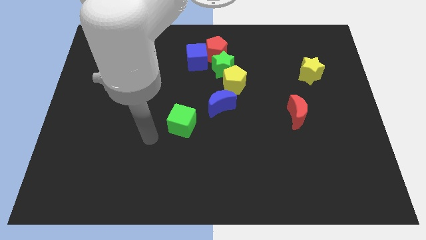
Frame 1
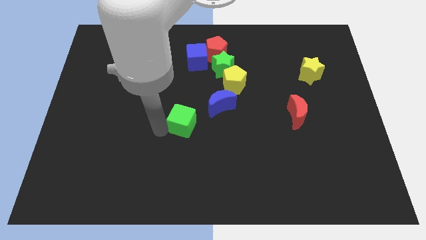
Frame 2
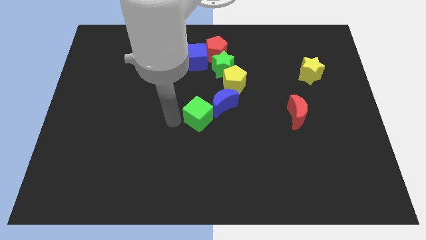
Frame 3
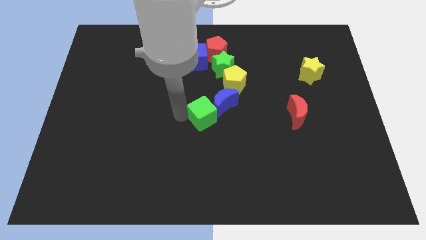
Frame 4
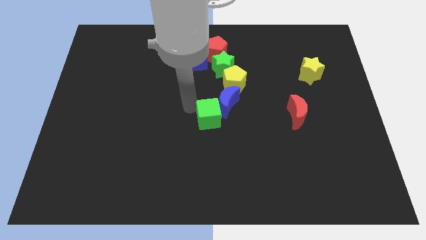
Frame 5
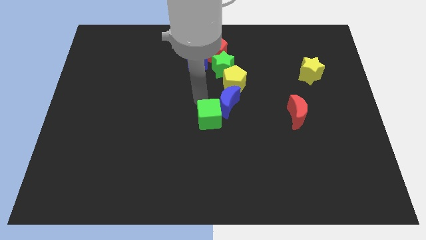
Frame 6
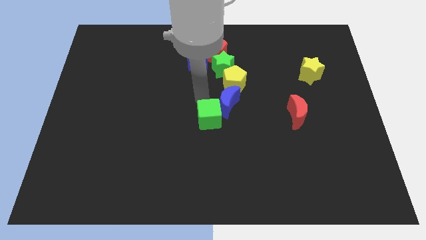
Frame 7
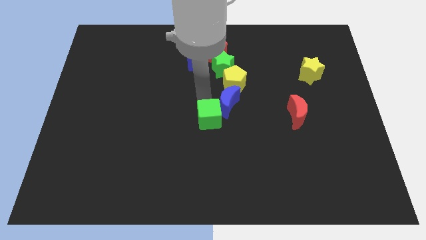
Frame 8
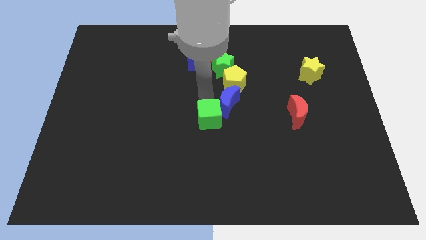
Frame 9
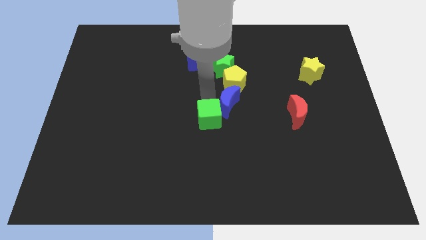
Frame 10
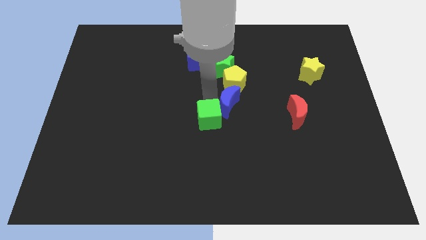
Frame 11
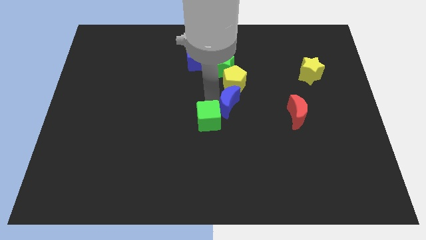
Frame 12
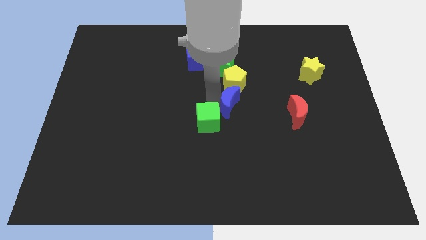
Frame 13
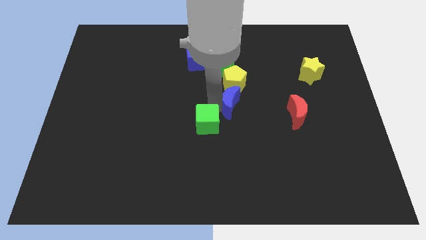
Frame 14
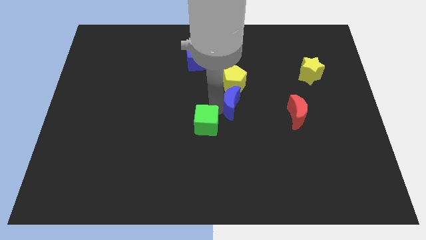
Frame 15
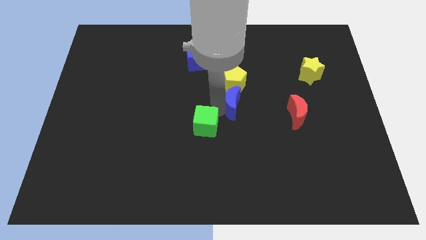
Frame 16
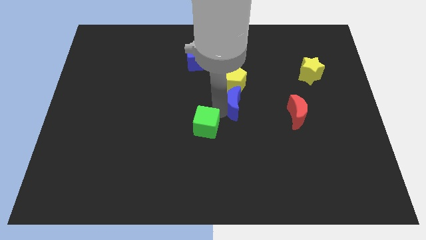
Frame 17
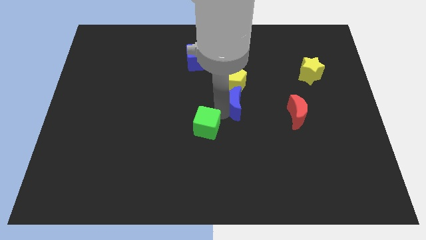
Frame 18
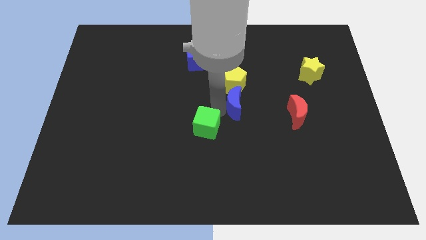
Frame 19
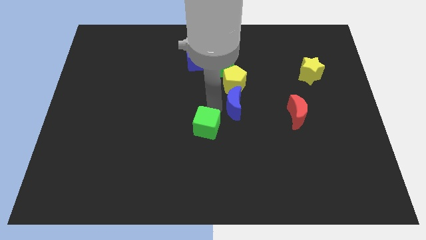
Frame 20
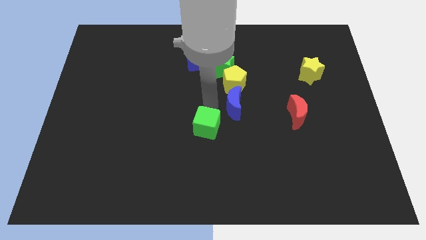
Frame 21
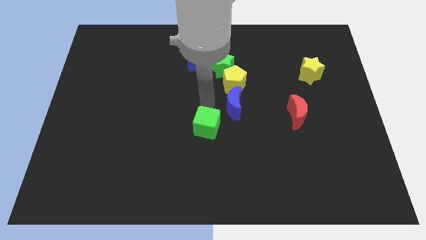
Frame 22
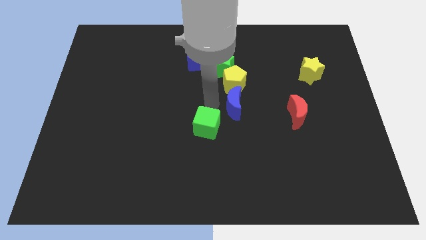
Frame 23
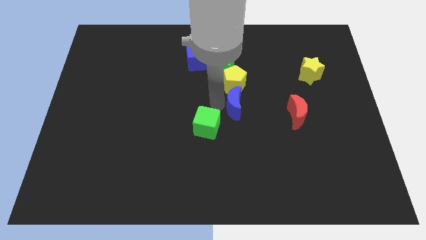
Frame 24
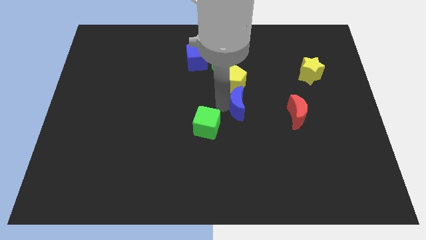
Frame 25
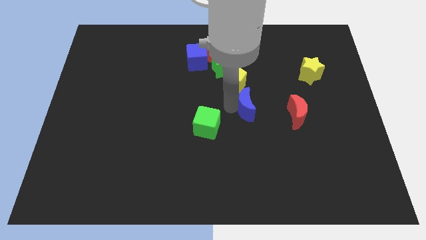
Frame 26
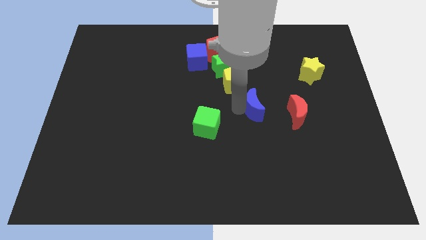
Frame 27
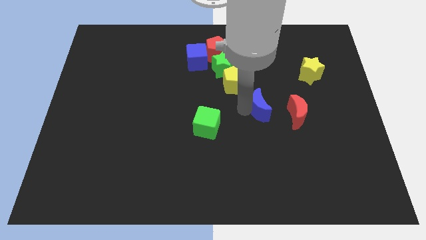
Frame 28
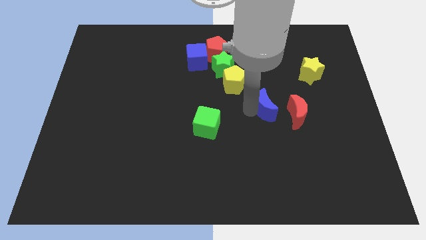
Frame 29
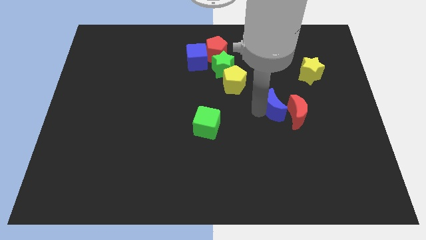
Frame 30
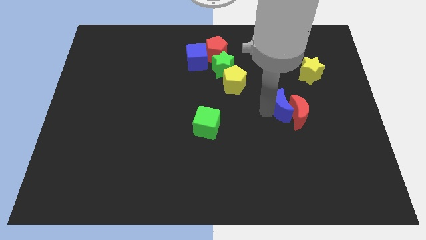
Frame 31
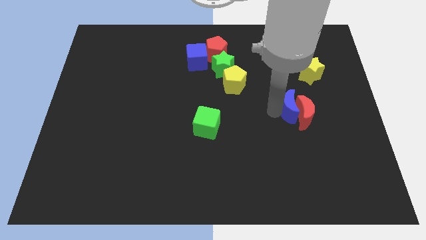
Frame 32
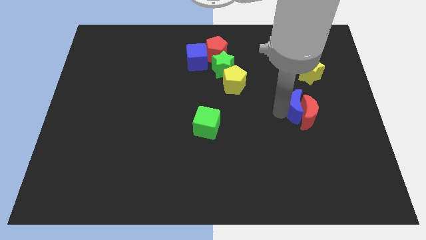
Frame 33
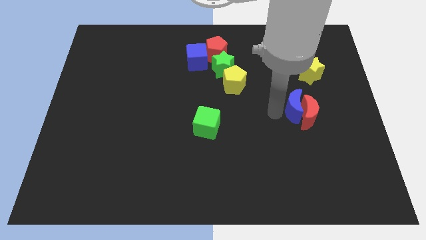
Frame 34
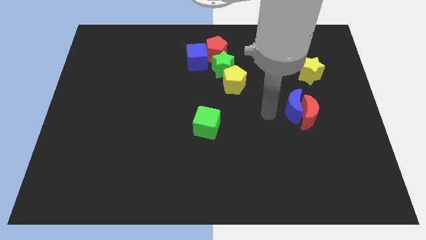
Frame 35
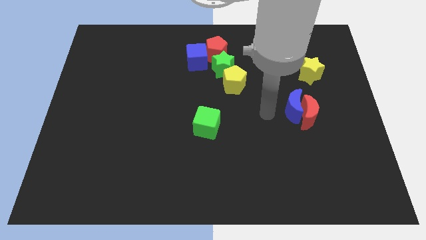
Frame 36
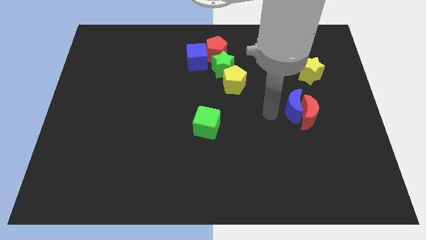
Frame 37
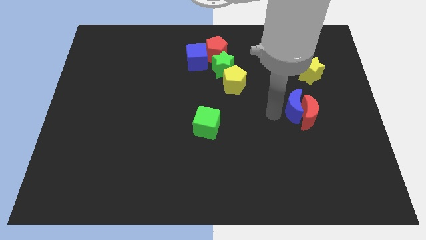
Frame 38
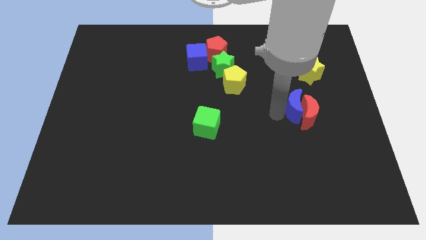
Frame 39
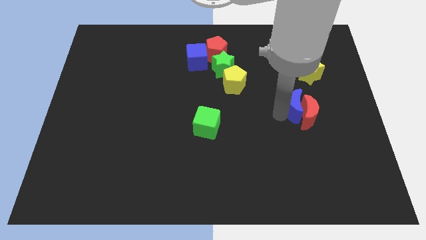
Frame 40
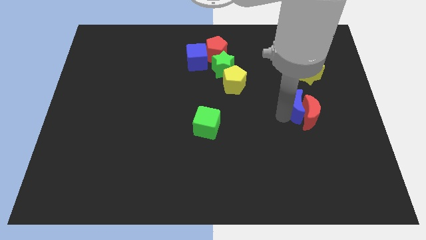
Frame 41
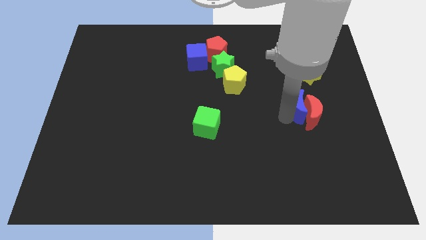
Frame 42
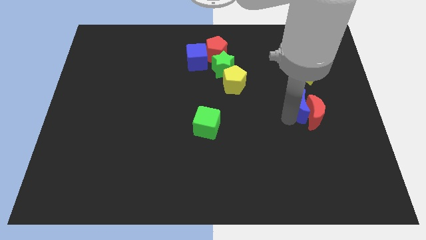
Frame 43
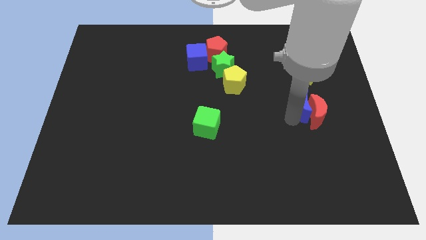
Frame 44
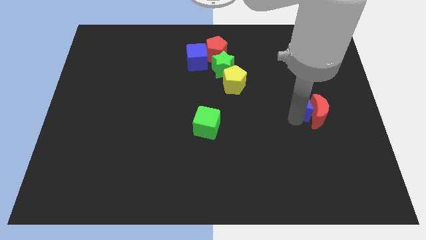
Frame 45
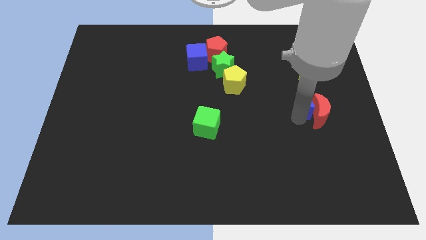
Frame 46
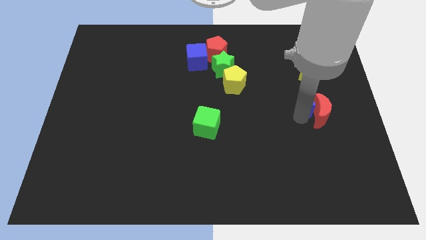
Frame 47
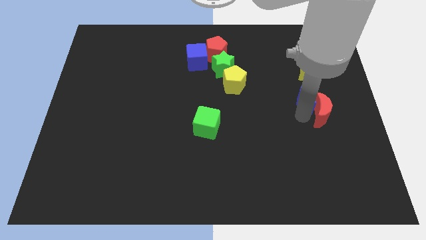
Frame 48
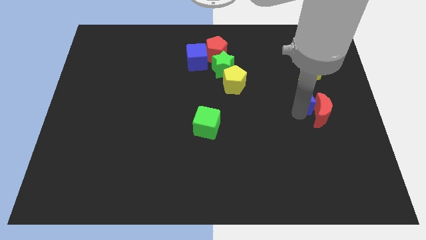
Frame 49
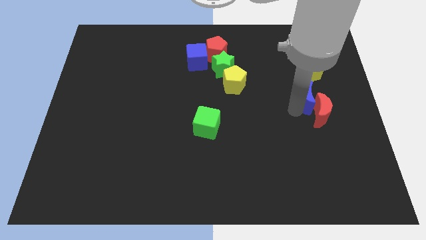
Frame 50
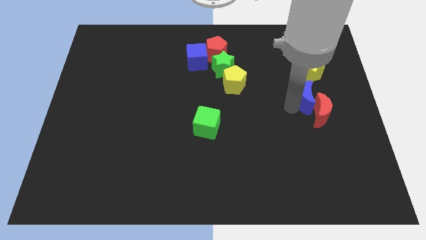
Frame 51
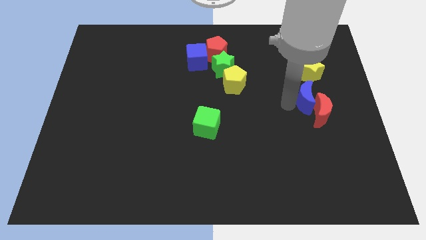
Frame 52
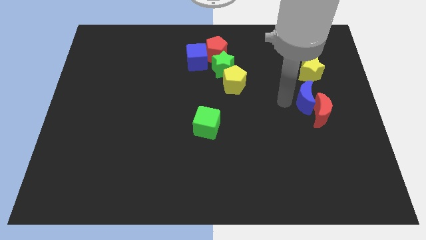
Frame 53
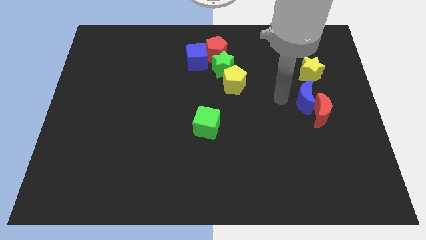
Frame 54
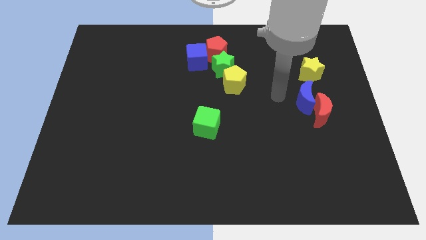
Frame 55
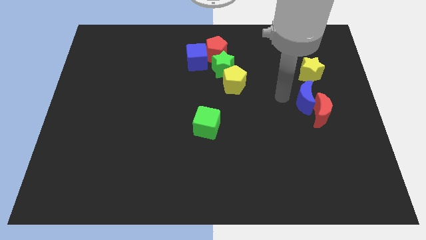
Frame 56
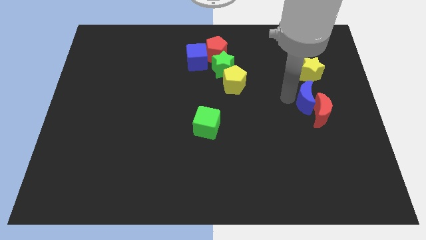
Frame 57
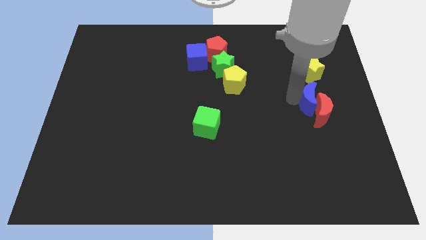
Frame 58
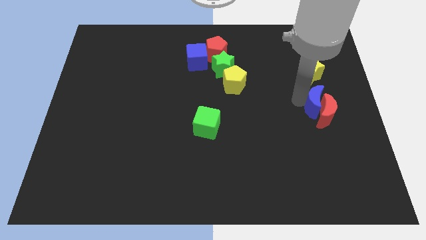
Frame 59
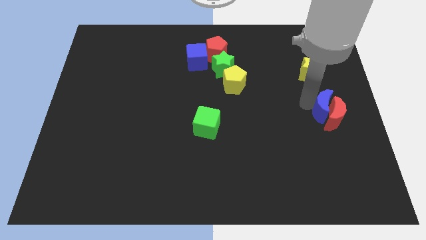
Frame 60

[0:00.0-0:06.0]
slide the blue moon to the right side

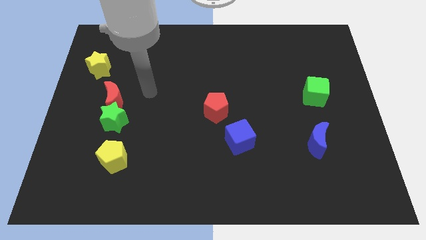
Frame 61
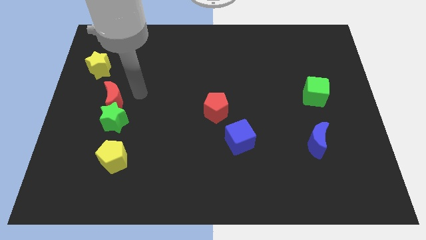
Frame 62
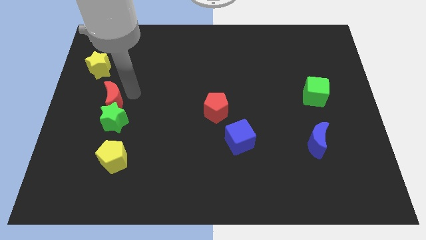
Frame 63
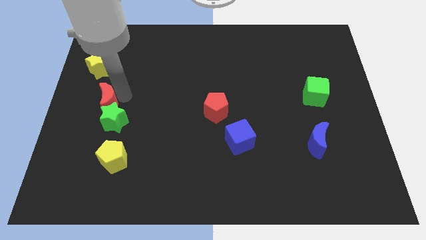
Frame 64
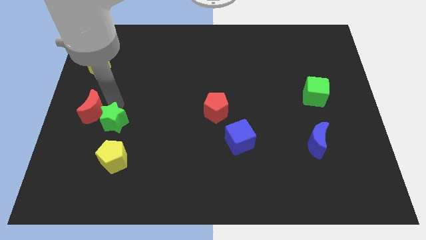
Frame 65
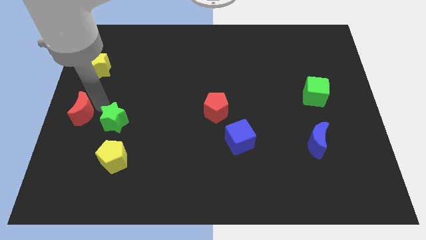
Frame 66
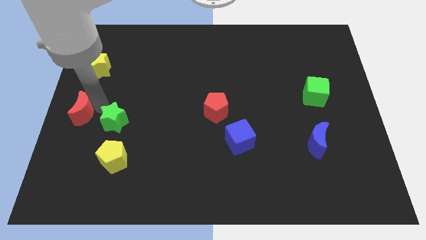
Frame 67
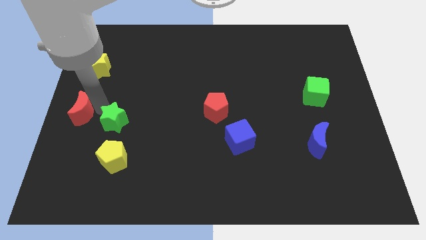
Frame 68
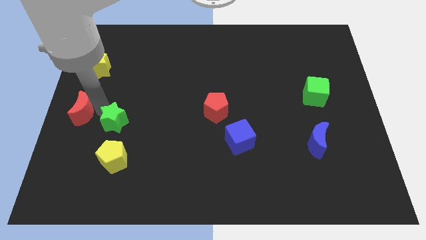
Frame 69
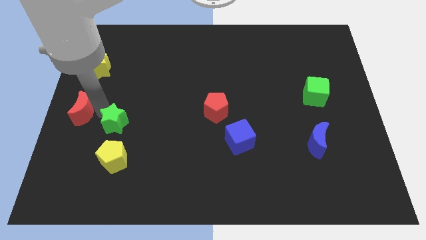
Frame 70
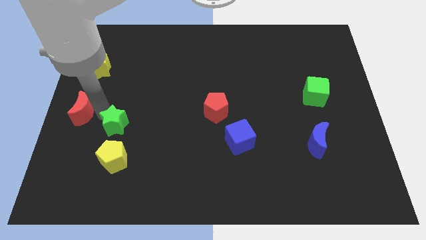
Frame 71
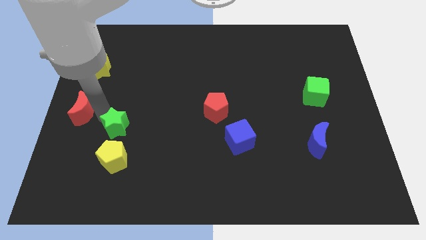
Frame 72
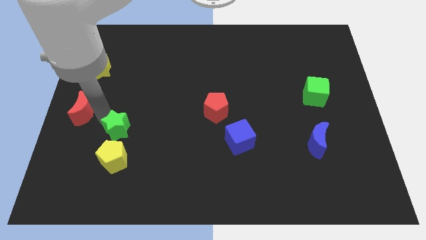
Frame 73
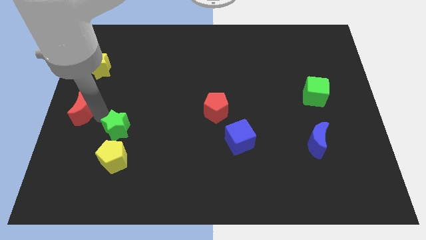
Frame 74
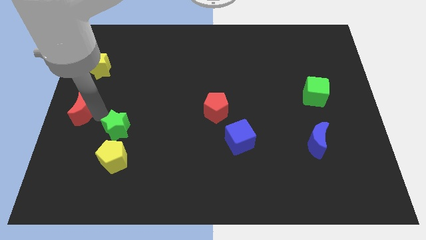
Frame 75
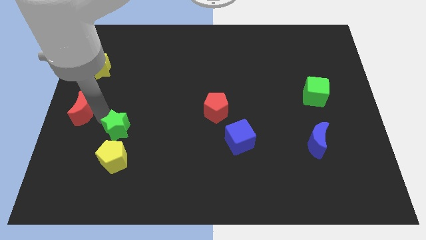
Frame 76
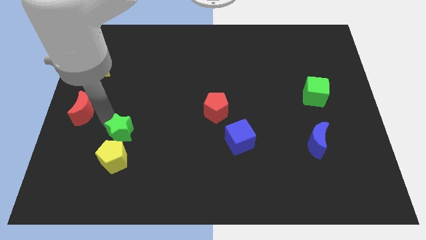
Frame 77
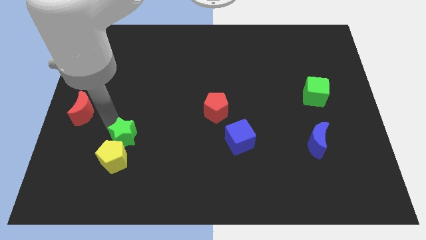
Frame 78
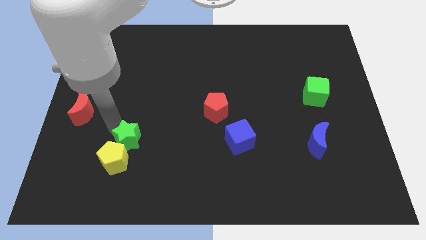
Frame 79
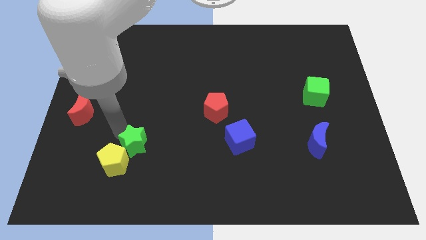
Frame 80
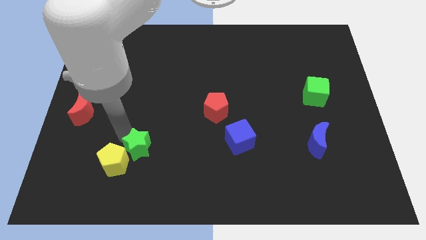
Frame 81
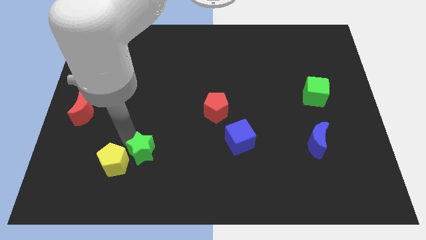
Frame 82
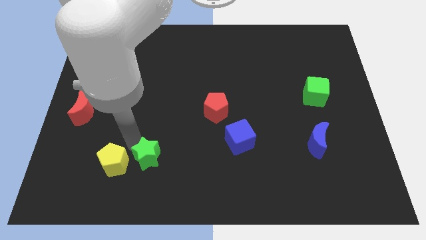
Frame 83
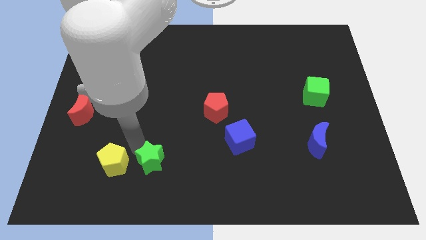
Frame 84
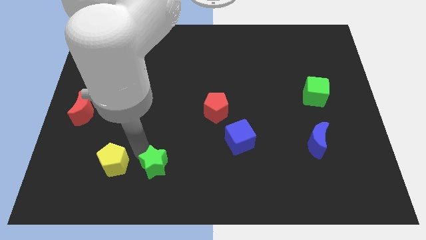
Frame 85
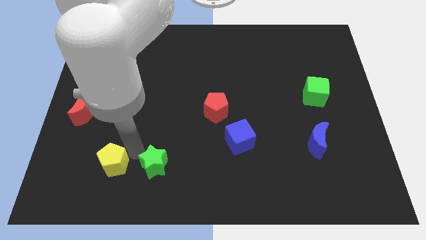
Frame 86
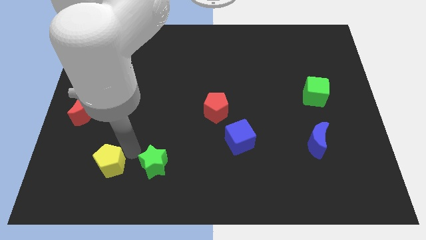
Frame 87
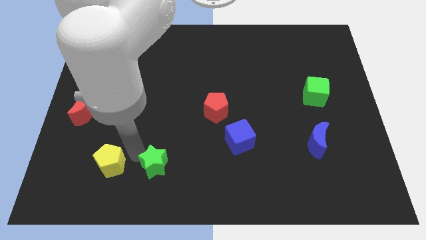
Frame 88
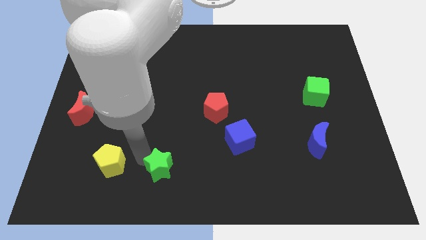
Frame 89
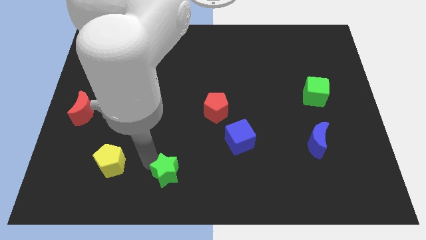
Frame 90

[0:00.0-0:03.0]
move the green star to the bottom
